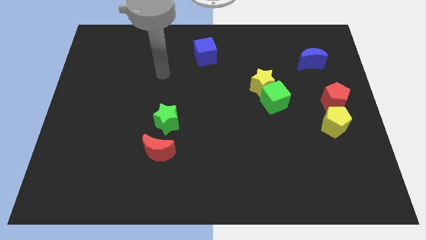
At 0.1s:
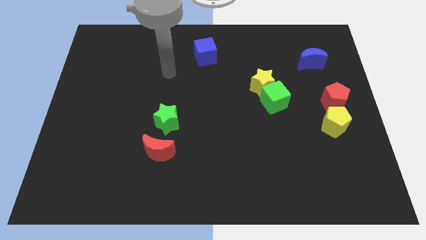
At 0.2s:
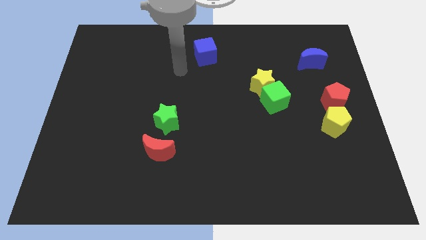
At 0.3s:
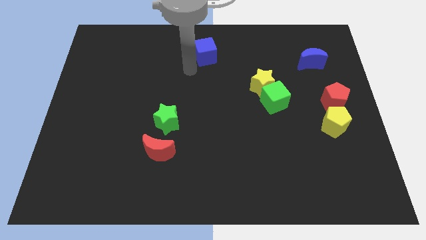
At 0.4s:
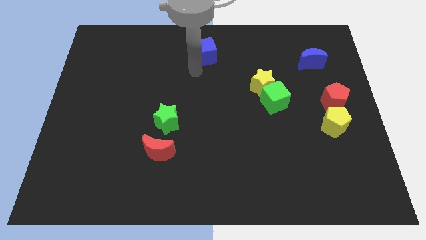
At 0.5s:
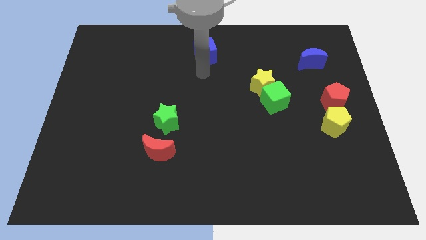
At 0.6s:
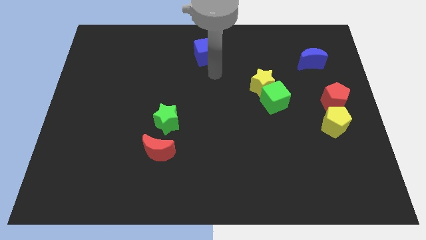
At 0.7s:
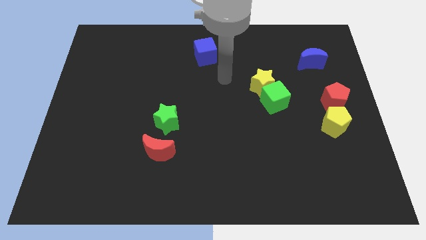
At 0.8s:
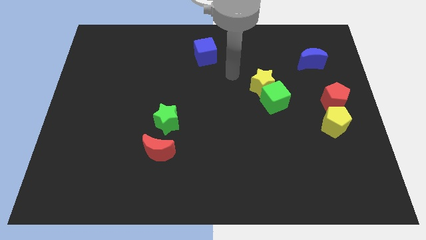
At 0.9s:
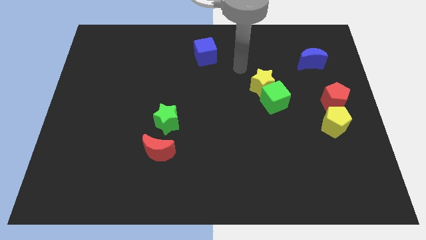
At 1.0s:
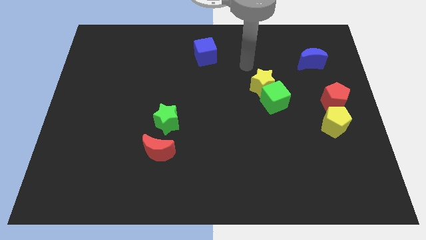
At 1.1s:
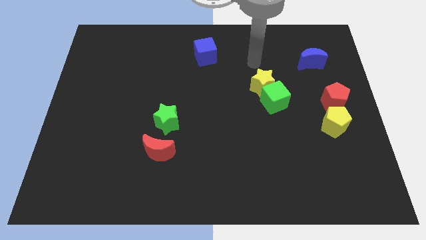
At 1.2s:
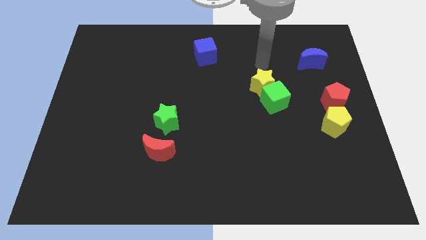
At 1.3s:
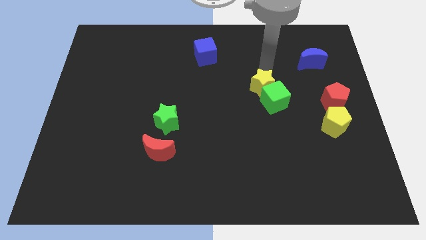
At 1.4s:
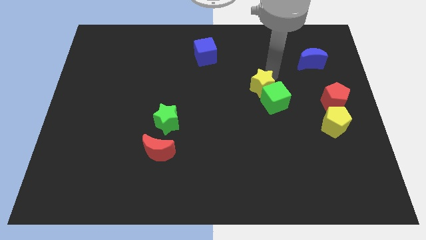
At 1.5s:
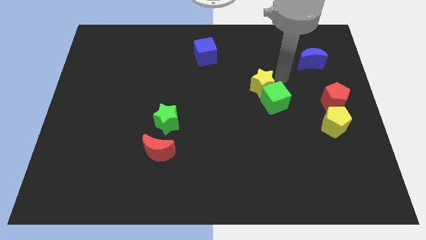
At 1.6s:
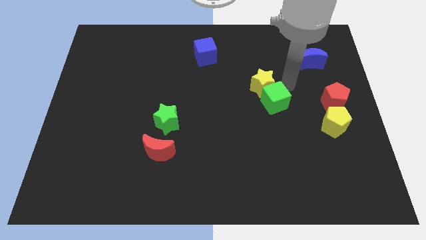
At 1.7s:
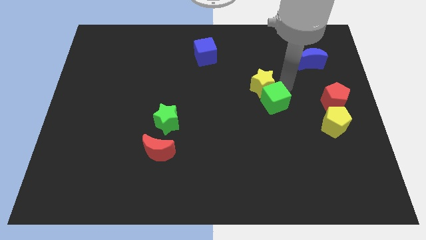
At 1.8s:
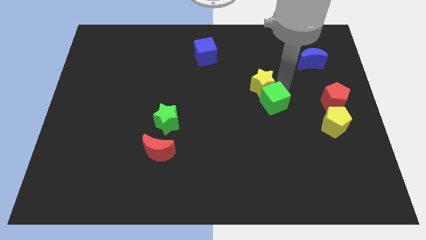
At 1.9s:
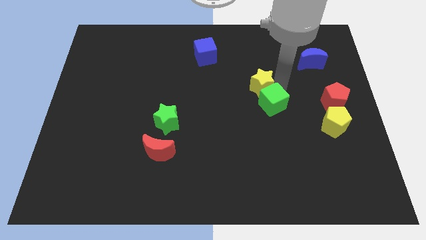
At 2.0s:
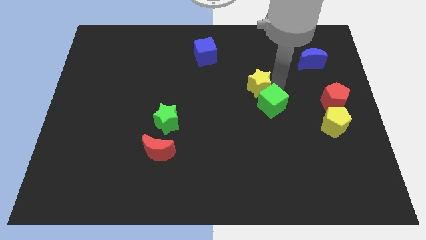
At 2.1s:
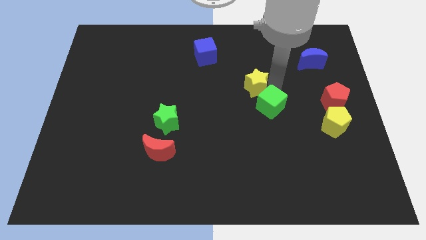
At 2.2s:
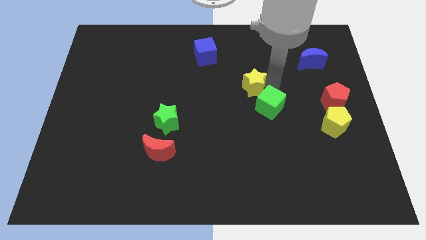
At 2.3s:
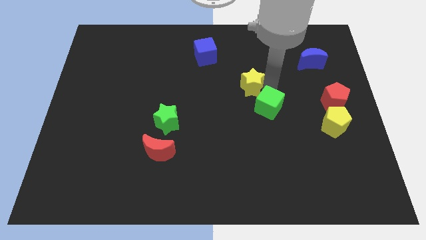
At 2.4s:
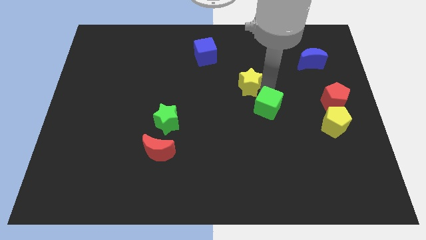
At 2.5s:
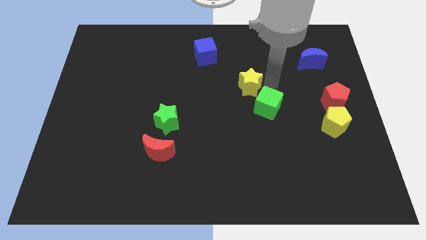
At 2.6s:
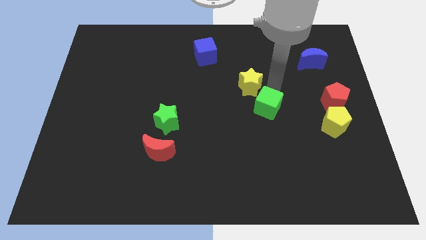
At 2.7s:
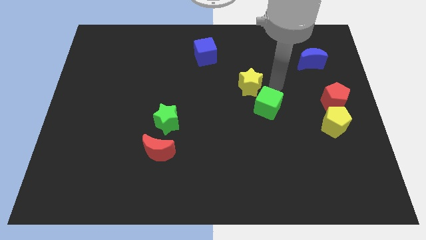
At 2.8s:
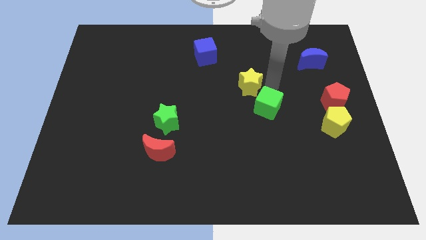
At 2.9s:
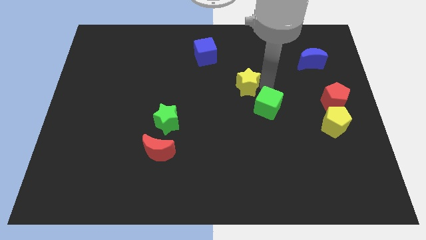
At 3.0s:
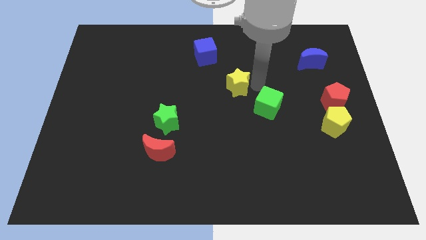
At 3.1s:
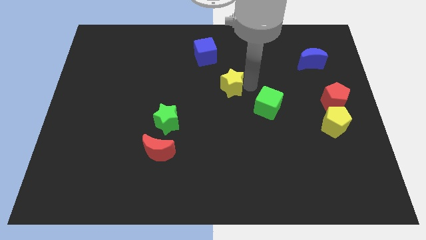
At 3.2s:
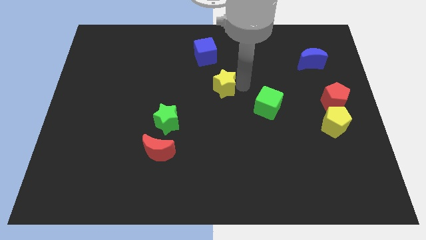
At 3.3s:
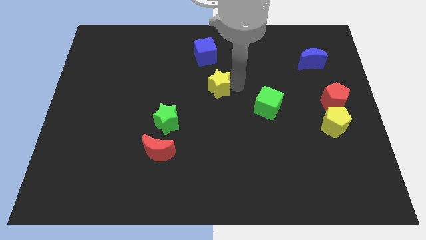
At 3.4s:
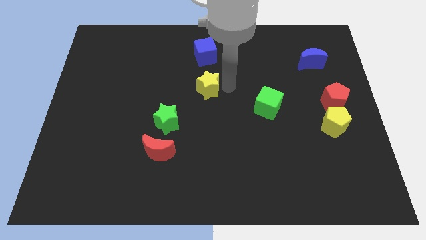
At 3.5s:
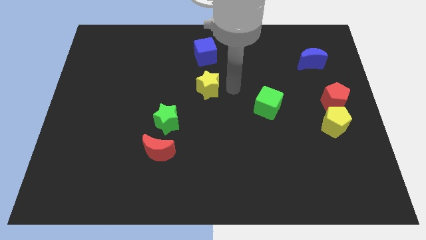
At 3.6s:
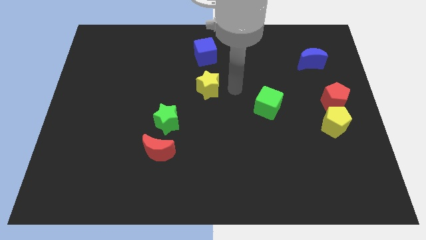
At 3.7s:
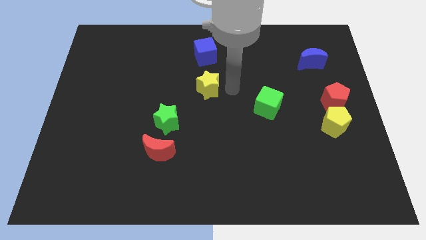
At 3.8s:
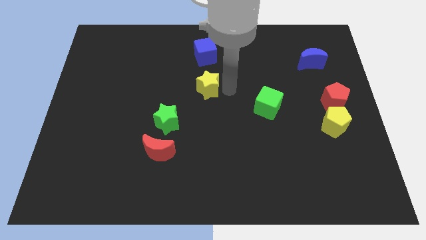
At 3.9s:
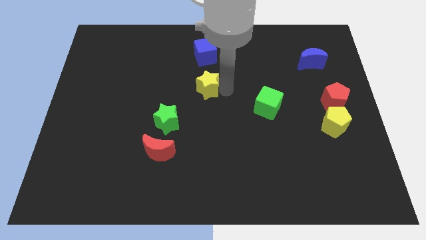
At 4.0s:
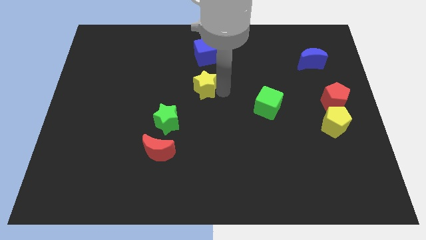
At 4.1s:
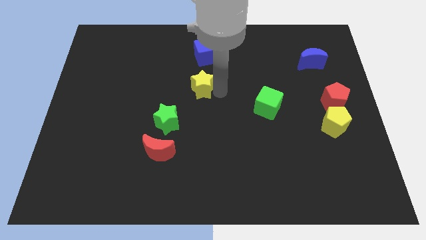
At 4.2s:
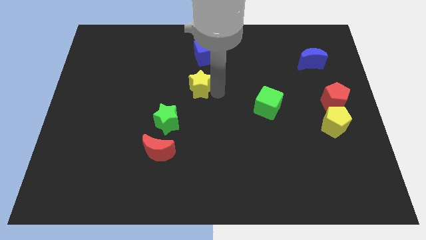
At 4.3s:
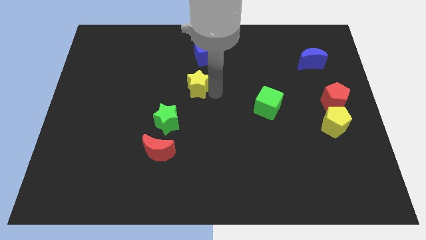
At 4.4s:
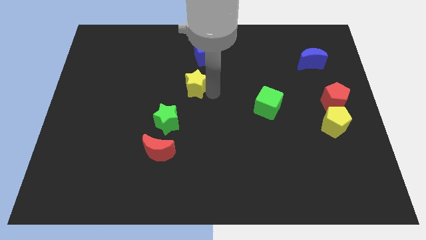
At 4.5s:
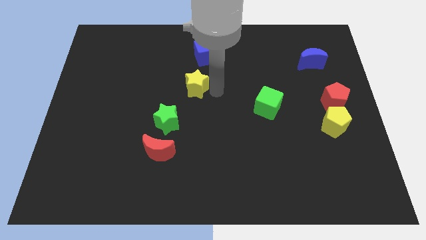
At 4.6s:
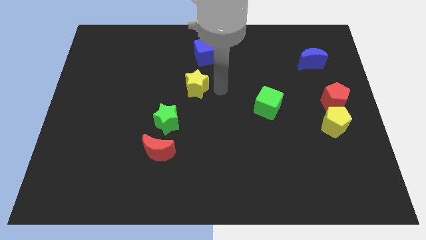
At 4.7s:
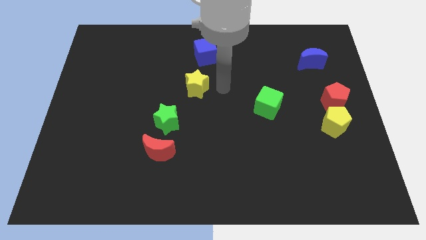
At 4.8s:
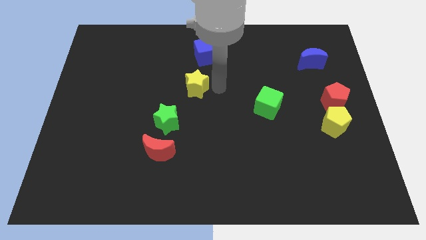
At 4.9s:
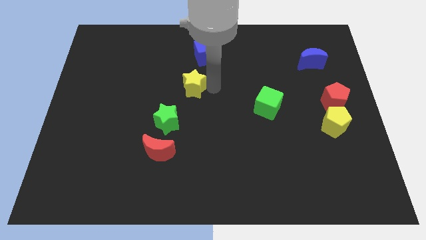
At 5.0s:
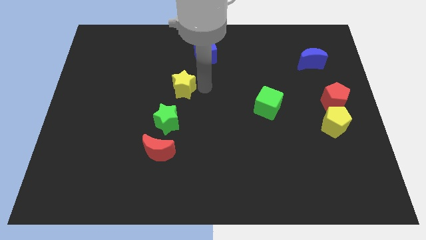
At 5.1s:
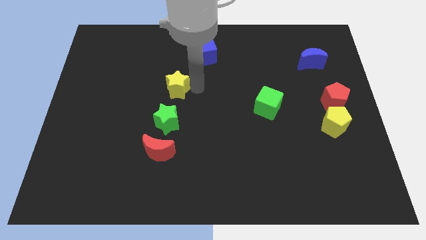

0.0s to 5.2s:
slide the yellow star to the left

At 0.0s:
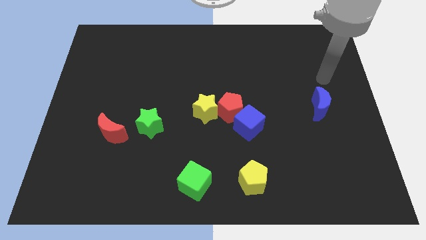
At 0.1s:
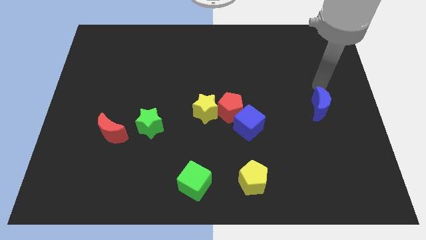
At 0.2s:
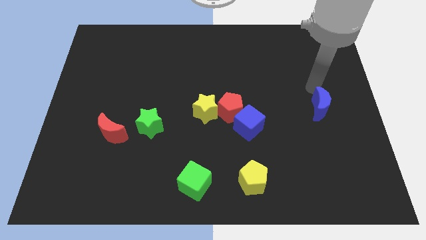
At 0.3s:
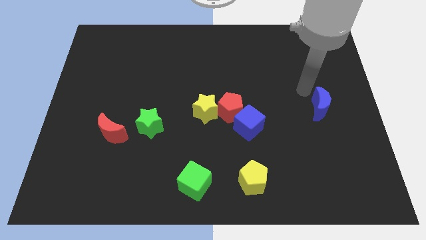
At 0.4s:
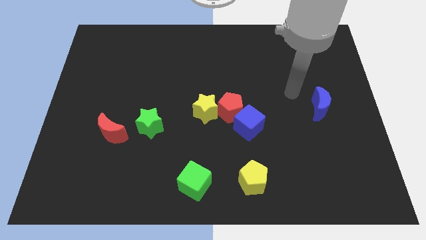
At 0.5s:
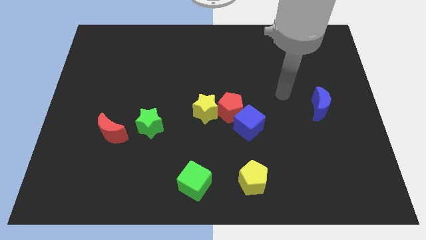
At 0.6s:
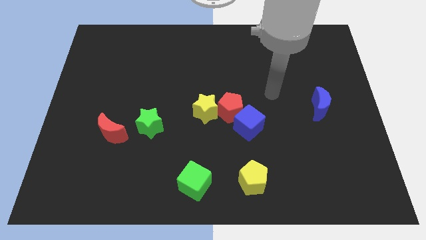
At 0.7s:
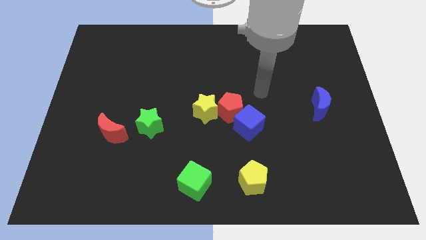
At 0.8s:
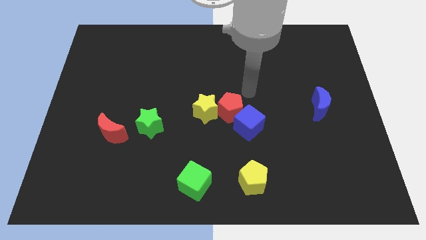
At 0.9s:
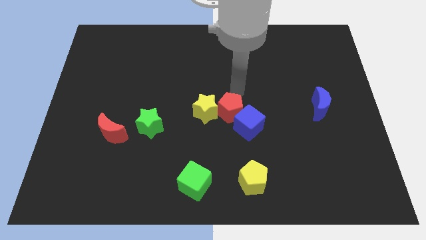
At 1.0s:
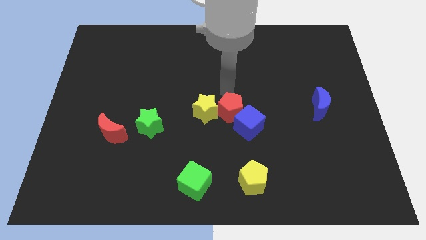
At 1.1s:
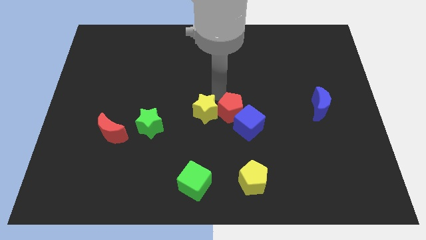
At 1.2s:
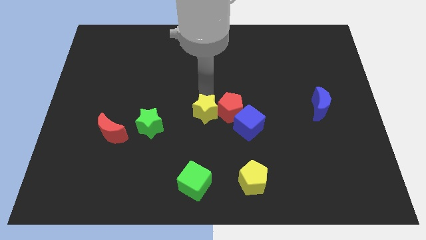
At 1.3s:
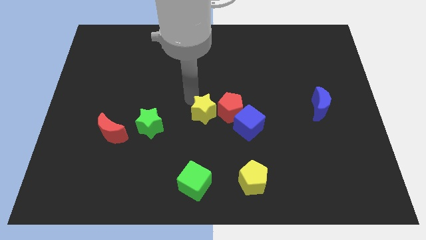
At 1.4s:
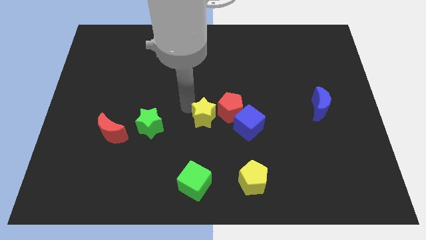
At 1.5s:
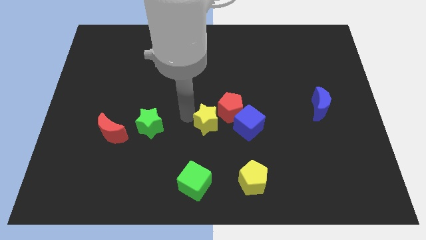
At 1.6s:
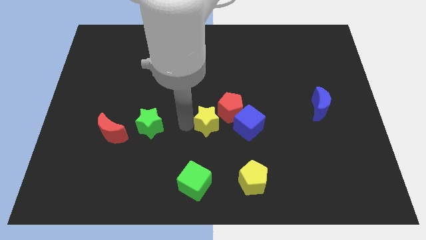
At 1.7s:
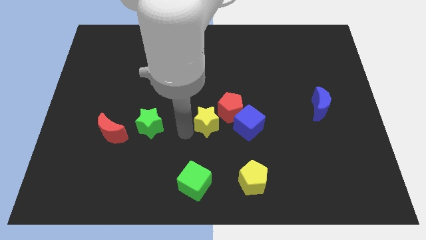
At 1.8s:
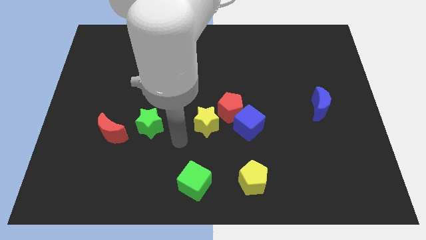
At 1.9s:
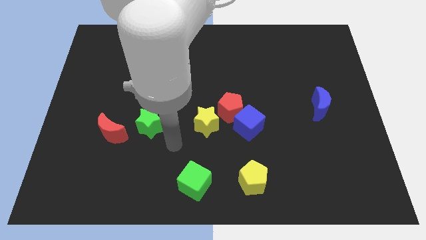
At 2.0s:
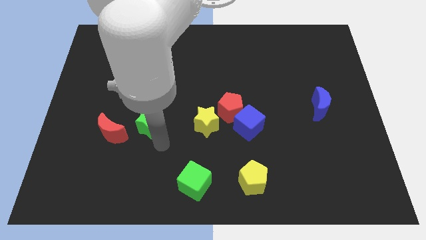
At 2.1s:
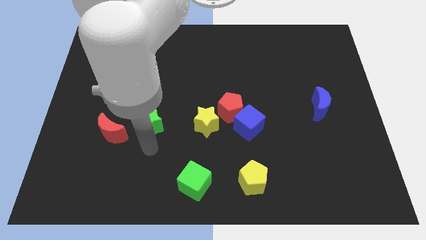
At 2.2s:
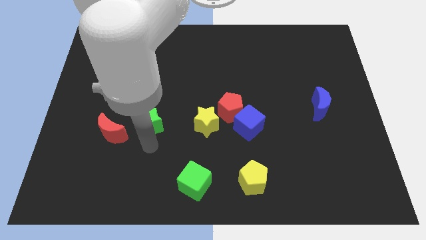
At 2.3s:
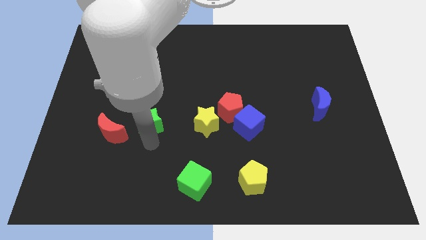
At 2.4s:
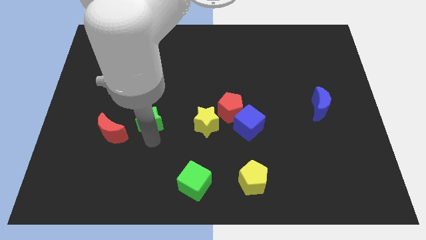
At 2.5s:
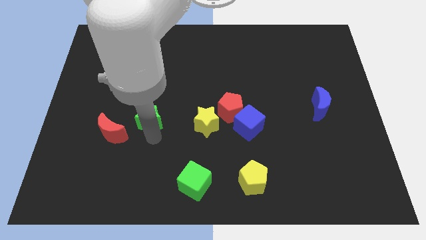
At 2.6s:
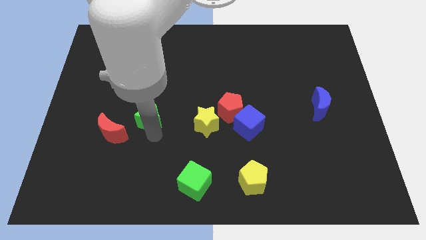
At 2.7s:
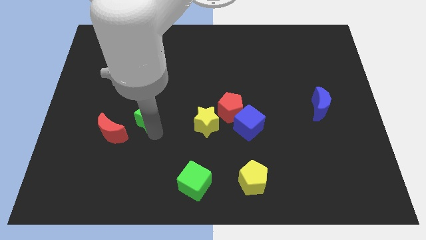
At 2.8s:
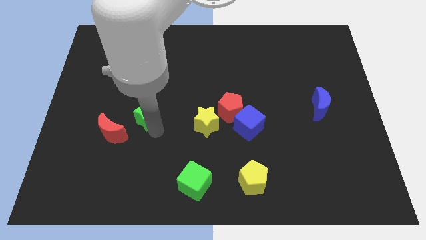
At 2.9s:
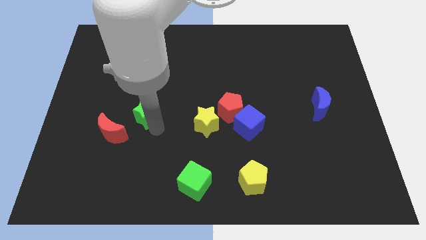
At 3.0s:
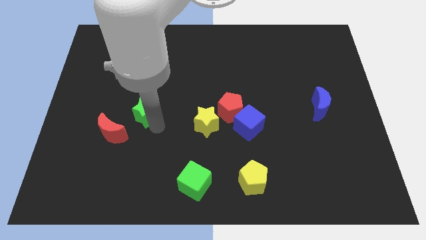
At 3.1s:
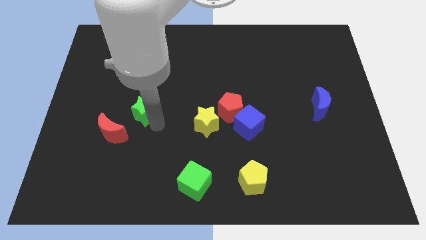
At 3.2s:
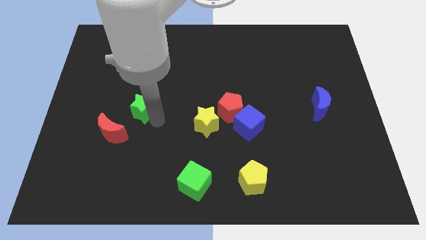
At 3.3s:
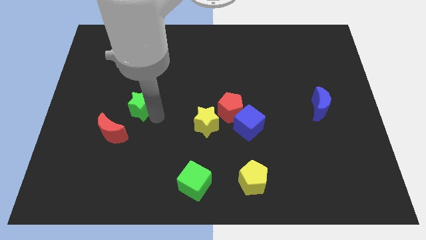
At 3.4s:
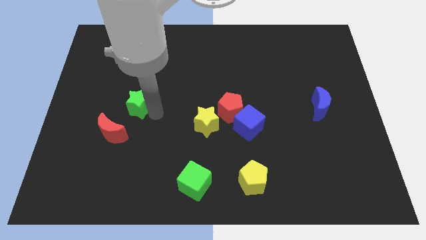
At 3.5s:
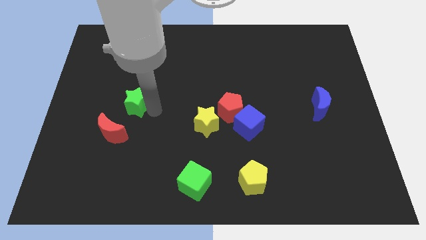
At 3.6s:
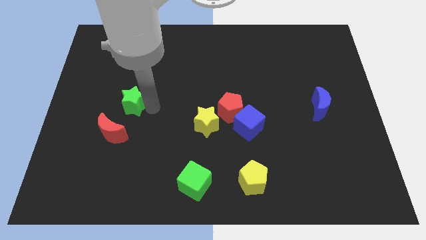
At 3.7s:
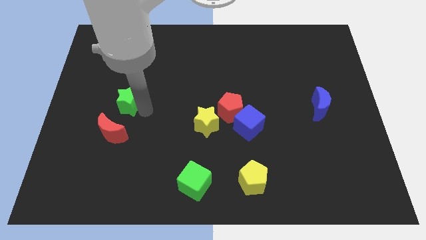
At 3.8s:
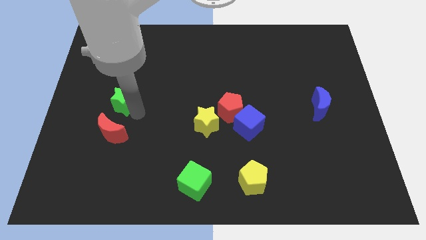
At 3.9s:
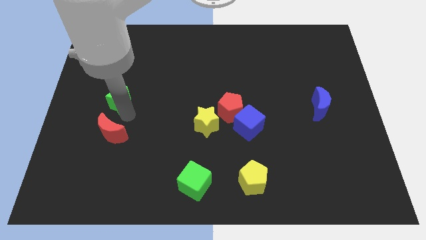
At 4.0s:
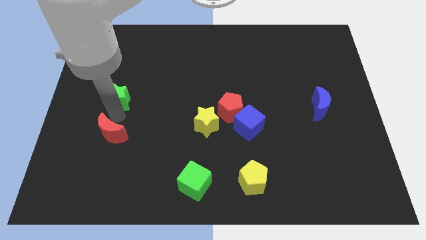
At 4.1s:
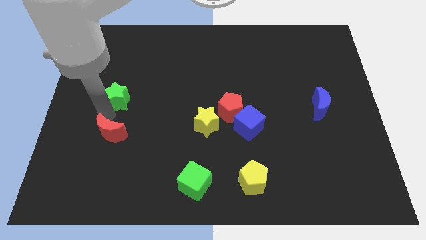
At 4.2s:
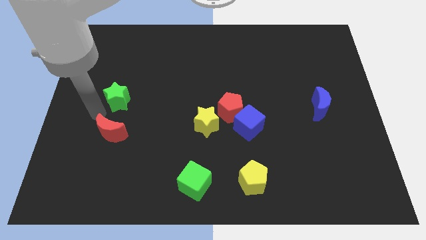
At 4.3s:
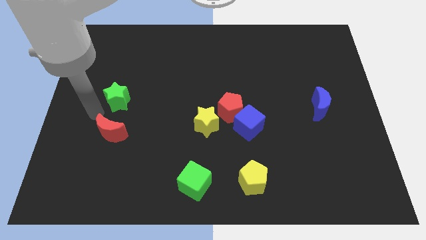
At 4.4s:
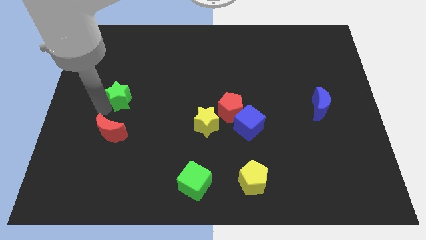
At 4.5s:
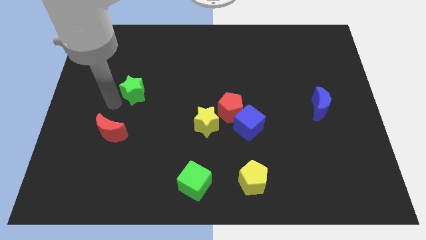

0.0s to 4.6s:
push the green star upwards a little bit
